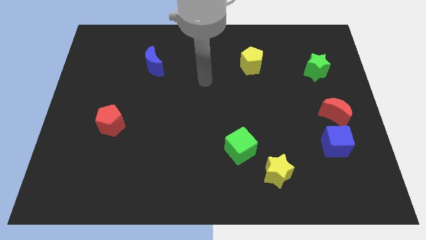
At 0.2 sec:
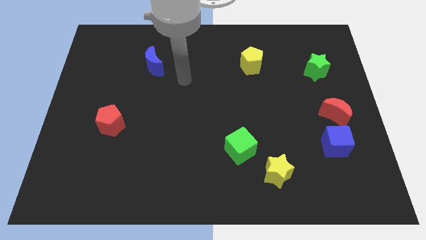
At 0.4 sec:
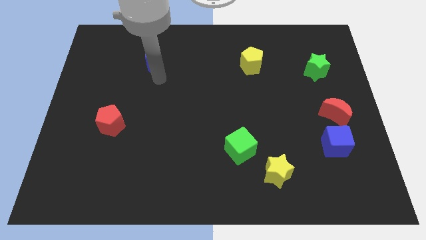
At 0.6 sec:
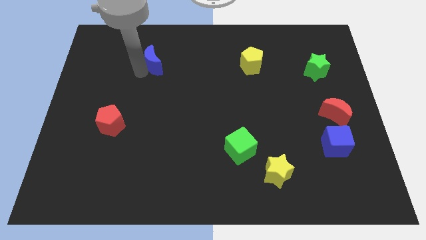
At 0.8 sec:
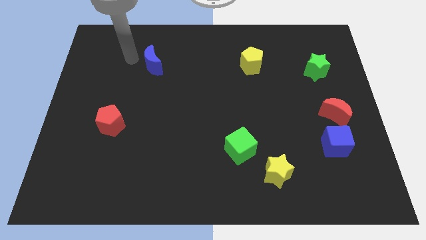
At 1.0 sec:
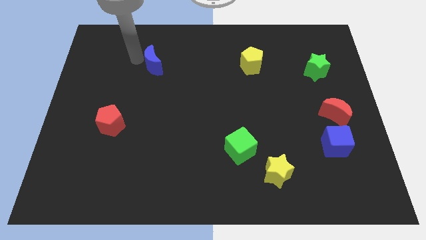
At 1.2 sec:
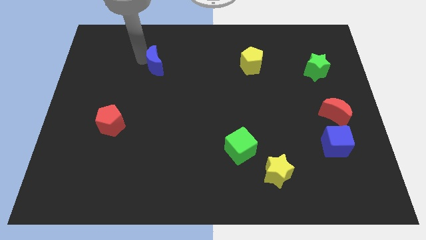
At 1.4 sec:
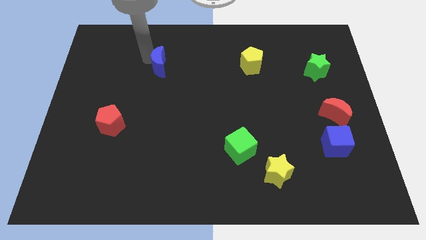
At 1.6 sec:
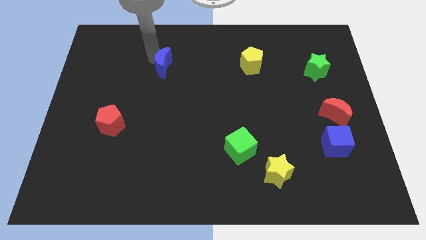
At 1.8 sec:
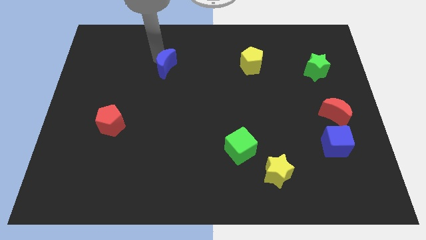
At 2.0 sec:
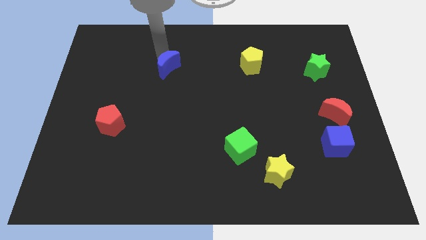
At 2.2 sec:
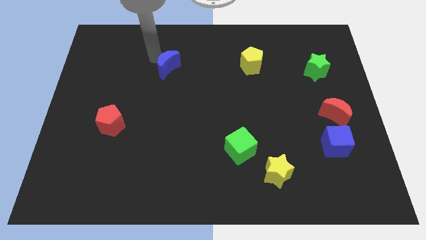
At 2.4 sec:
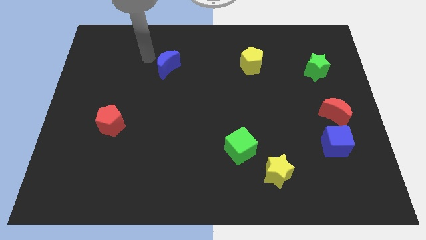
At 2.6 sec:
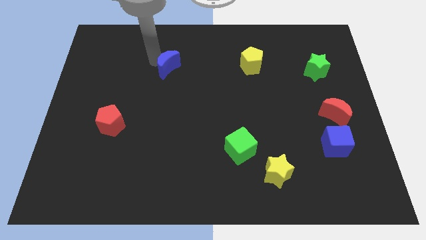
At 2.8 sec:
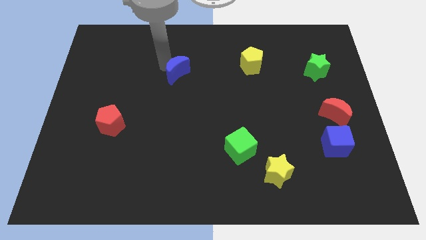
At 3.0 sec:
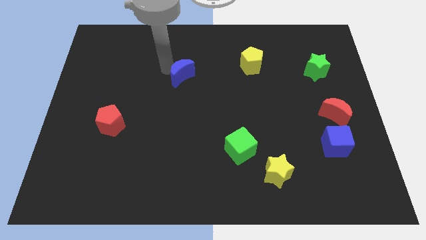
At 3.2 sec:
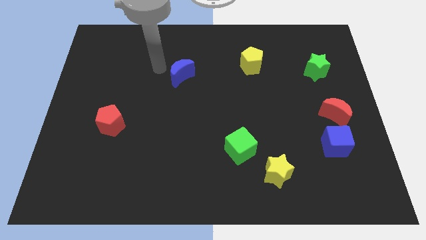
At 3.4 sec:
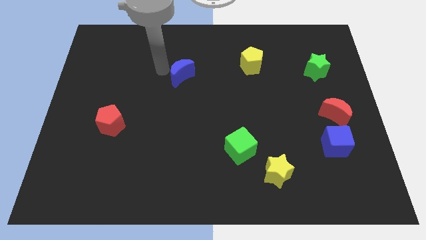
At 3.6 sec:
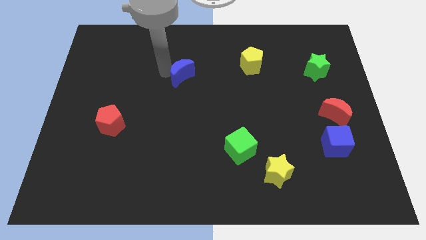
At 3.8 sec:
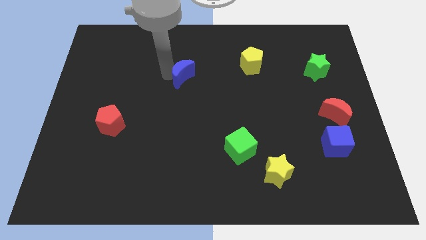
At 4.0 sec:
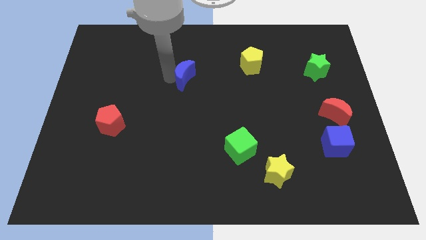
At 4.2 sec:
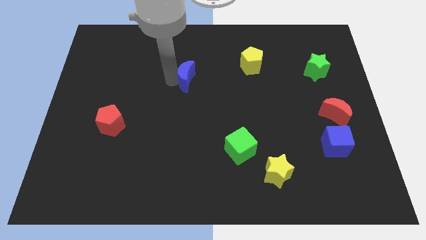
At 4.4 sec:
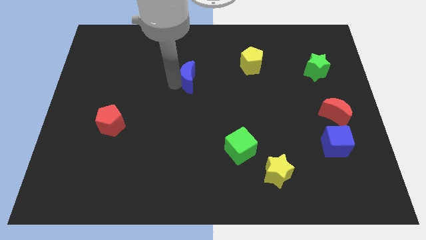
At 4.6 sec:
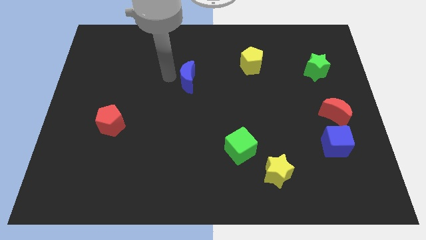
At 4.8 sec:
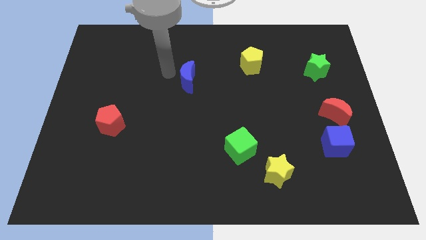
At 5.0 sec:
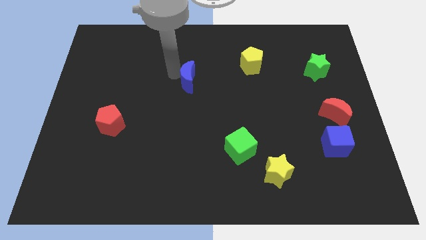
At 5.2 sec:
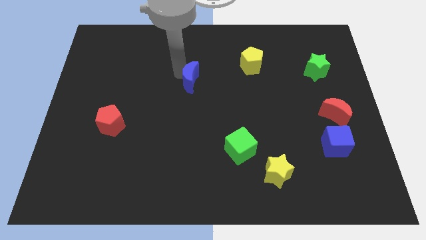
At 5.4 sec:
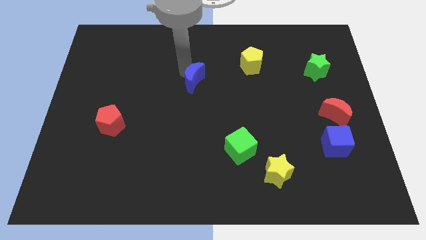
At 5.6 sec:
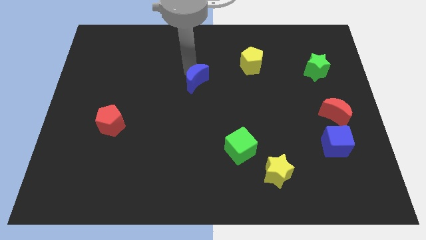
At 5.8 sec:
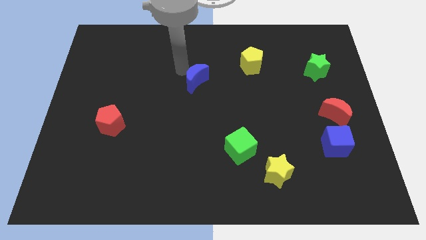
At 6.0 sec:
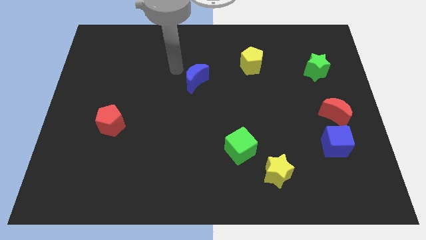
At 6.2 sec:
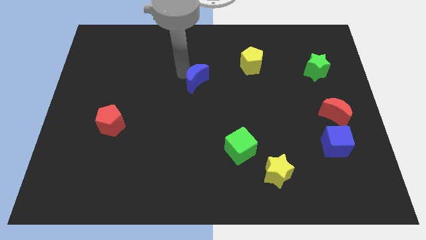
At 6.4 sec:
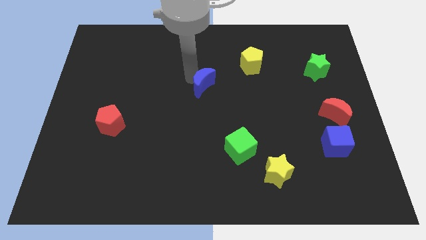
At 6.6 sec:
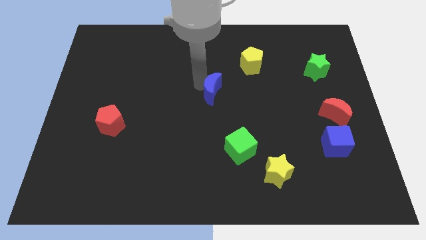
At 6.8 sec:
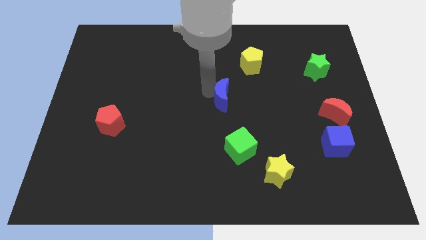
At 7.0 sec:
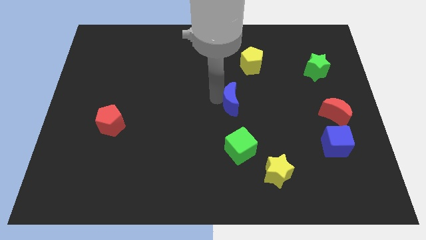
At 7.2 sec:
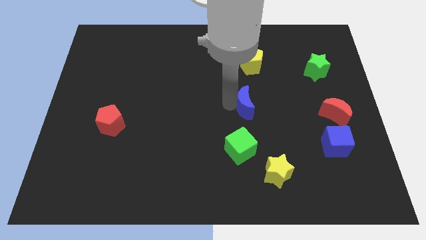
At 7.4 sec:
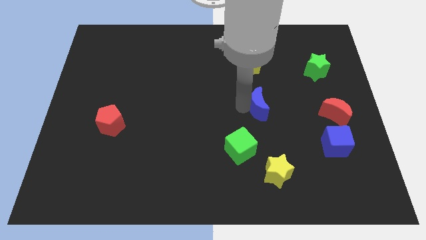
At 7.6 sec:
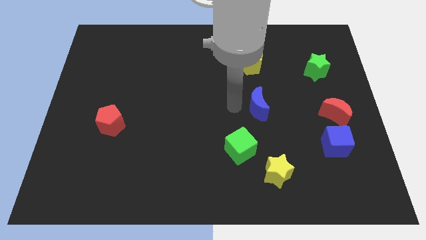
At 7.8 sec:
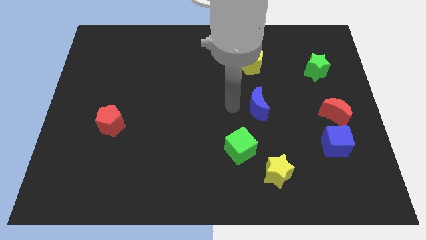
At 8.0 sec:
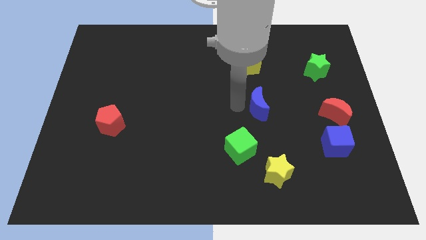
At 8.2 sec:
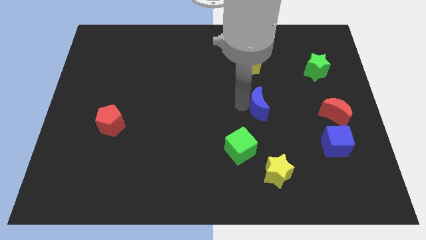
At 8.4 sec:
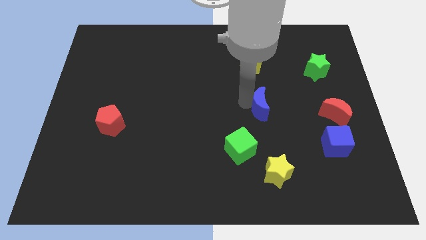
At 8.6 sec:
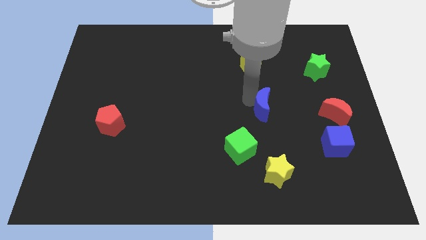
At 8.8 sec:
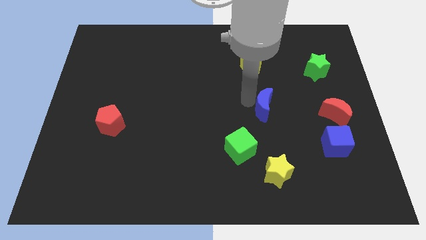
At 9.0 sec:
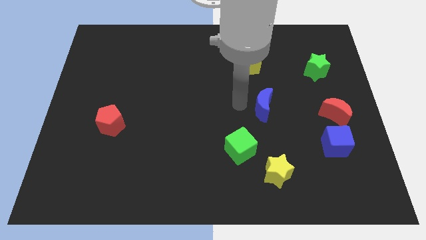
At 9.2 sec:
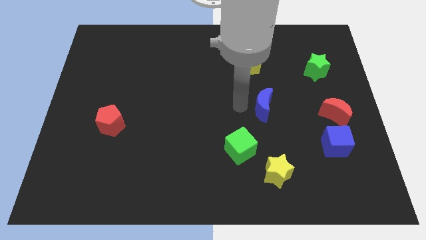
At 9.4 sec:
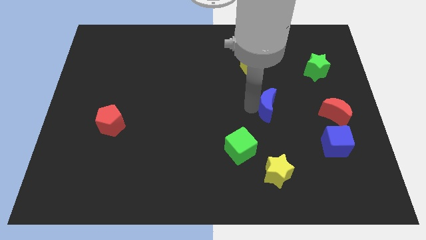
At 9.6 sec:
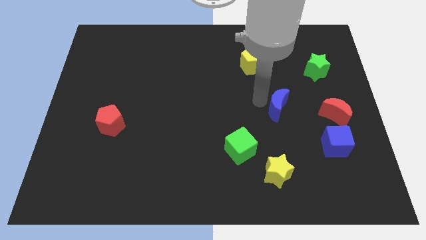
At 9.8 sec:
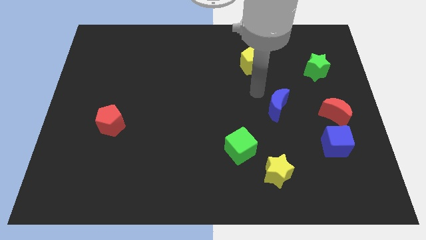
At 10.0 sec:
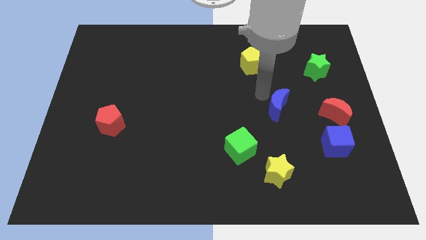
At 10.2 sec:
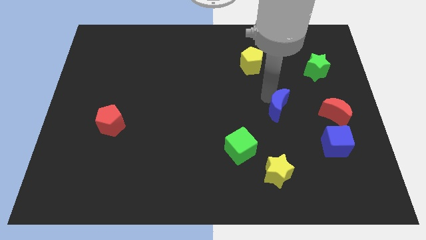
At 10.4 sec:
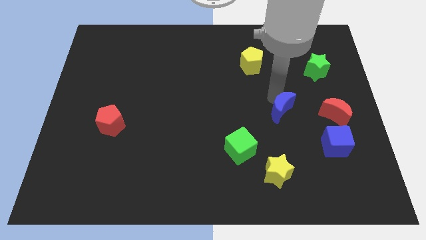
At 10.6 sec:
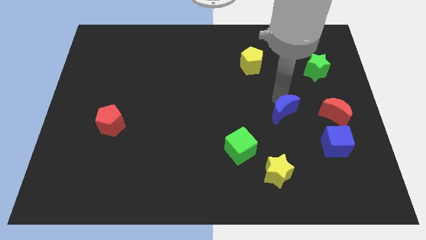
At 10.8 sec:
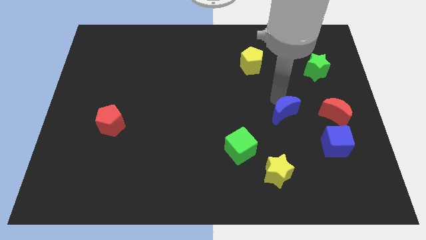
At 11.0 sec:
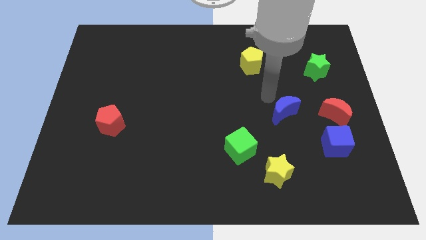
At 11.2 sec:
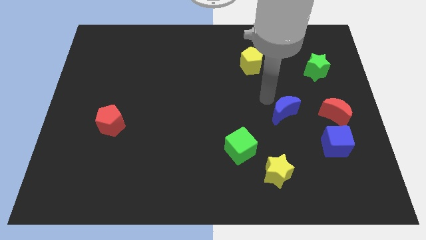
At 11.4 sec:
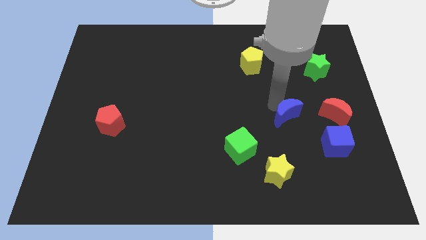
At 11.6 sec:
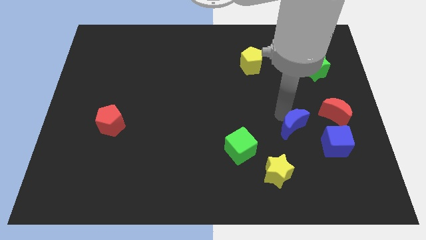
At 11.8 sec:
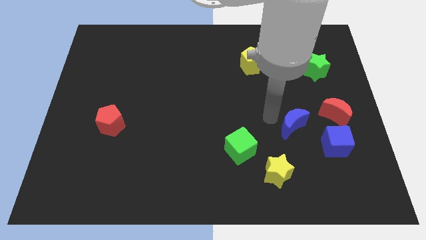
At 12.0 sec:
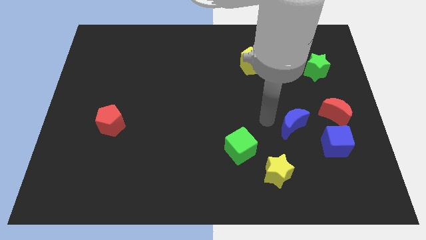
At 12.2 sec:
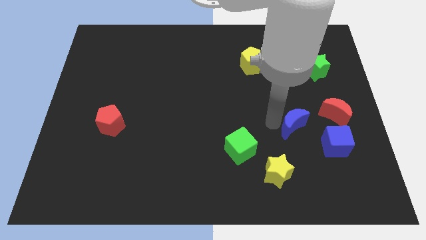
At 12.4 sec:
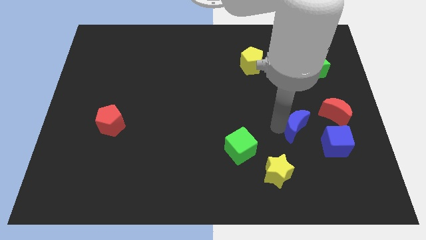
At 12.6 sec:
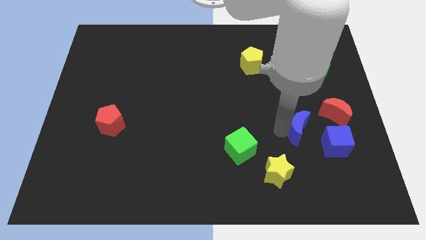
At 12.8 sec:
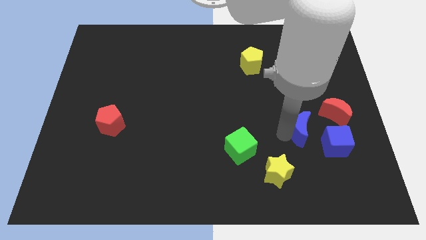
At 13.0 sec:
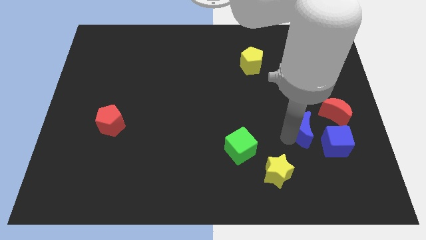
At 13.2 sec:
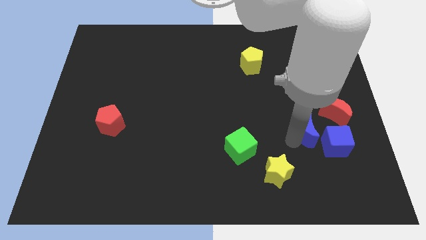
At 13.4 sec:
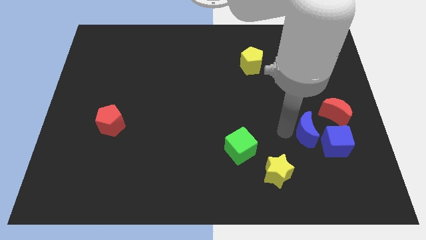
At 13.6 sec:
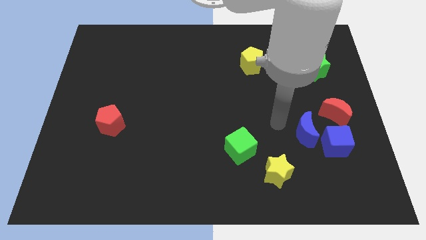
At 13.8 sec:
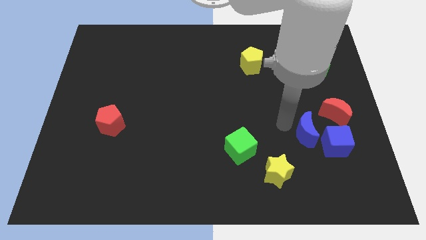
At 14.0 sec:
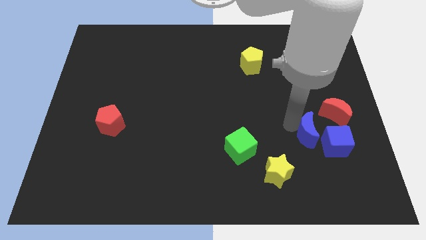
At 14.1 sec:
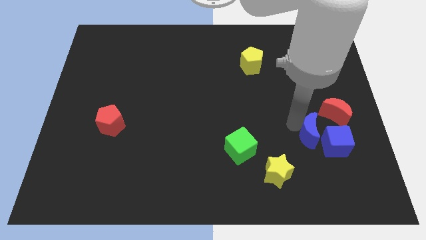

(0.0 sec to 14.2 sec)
move the blue moon next to the blue cube

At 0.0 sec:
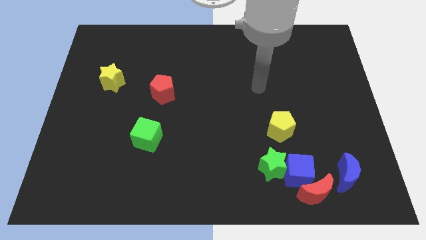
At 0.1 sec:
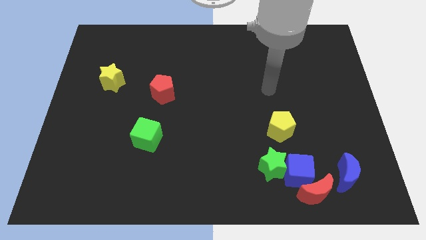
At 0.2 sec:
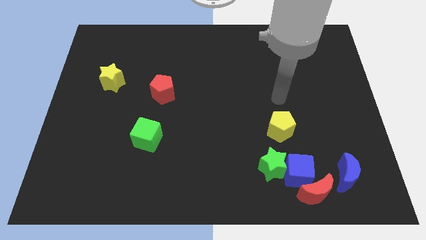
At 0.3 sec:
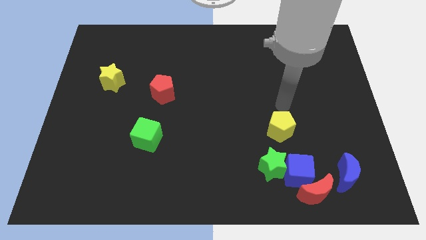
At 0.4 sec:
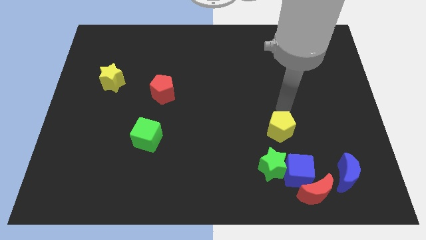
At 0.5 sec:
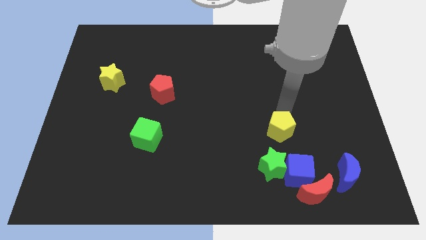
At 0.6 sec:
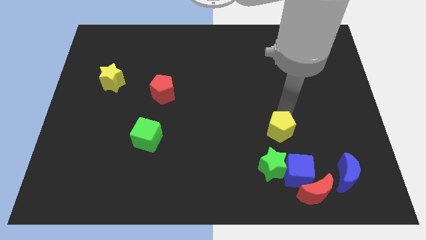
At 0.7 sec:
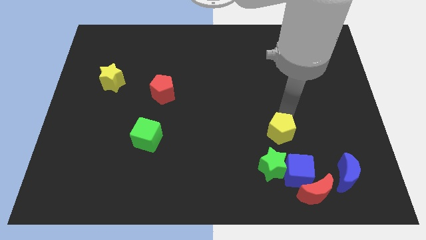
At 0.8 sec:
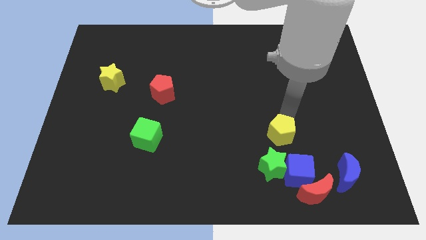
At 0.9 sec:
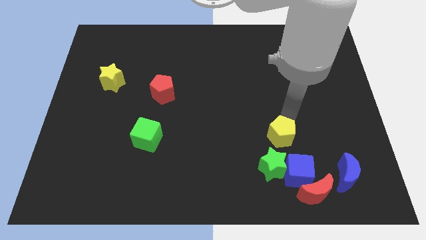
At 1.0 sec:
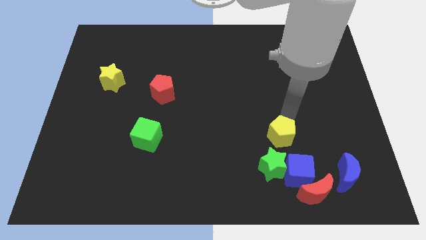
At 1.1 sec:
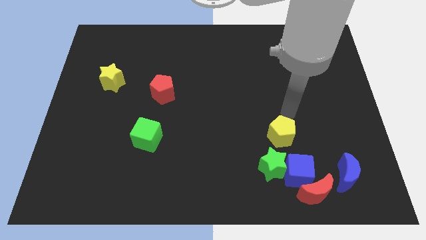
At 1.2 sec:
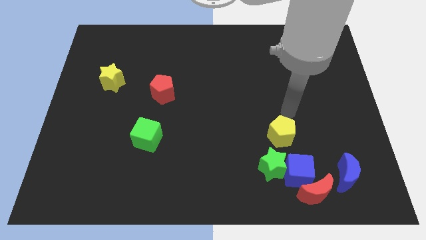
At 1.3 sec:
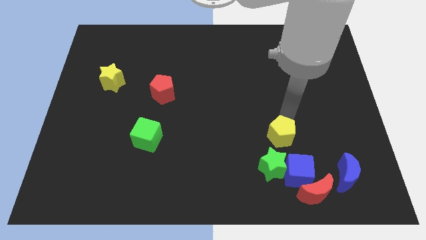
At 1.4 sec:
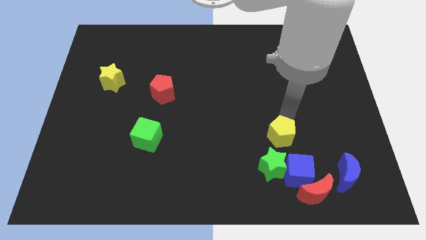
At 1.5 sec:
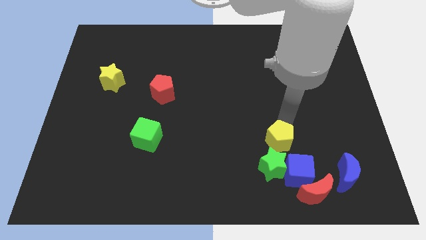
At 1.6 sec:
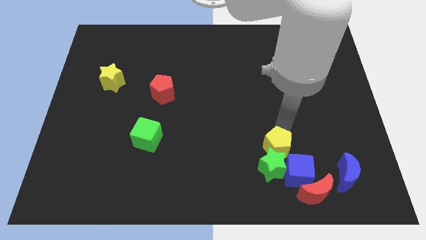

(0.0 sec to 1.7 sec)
put the yellow pentagon close to the green star
